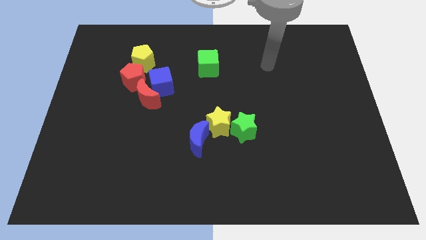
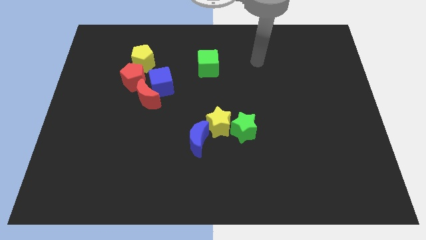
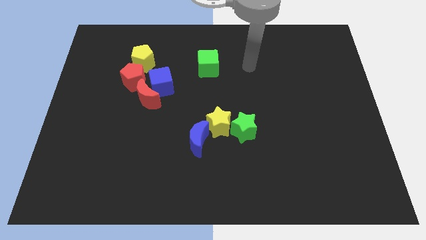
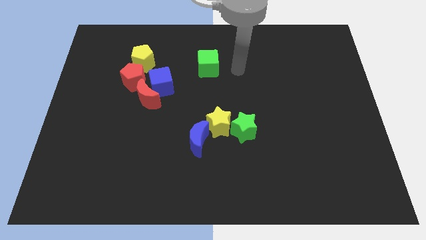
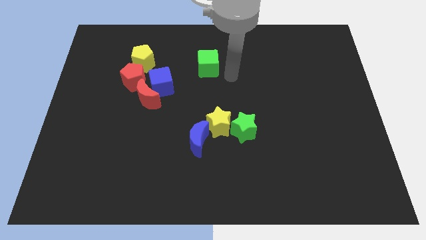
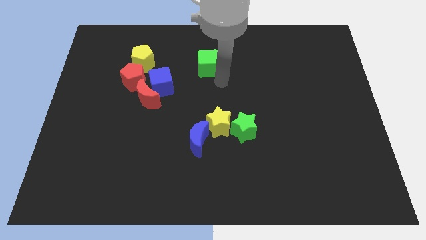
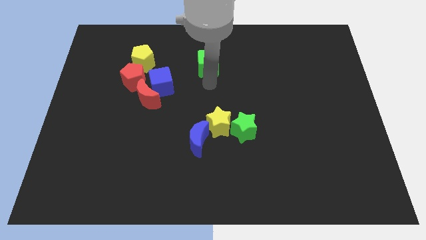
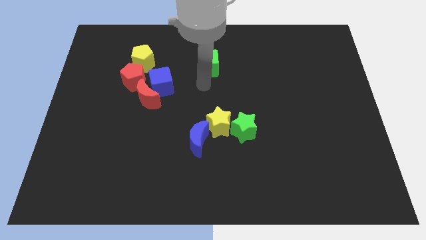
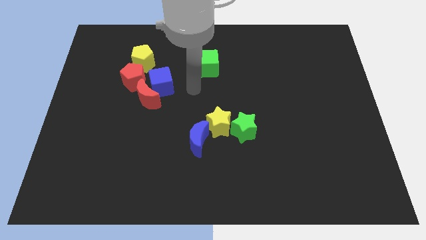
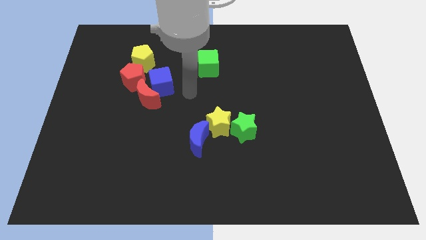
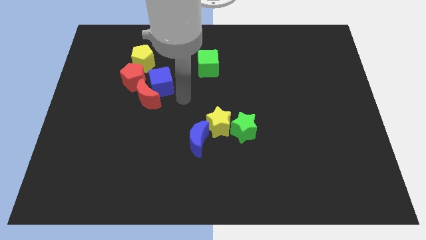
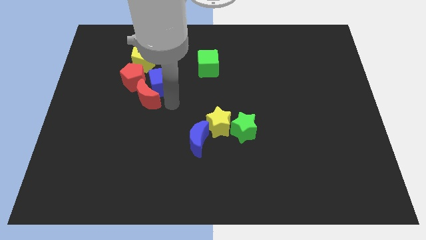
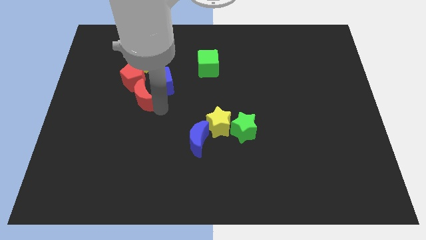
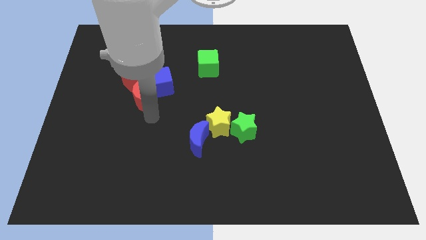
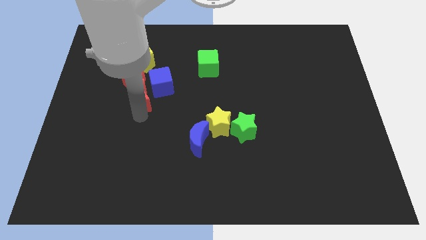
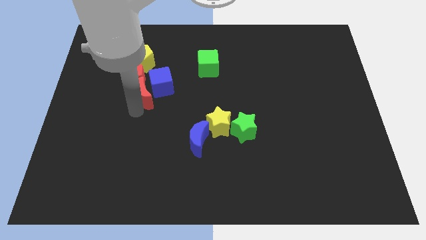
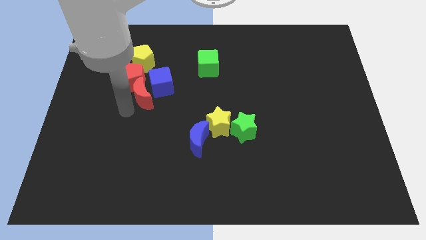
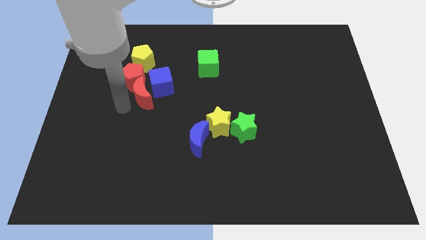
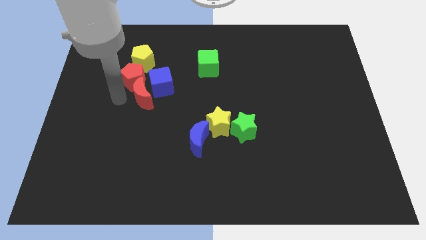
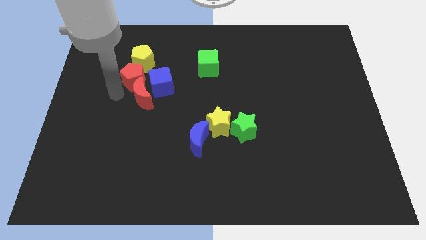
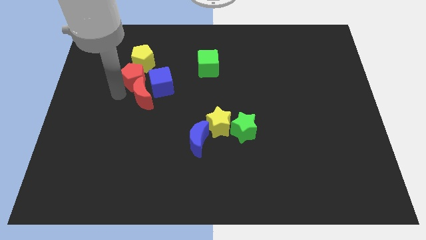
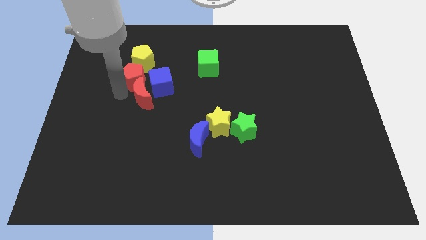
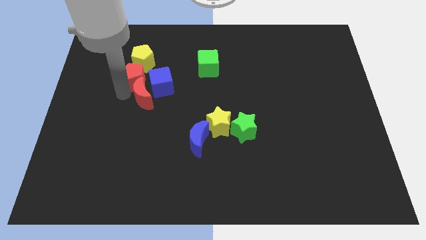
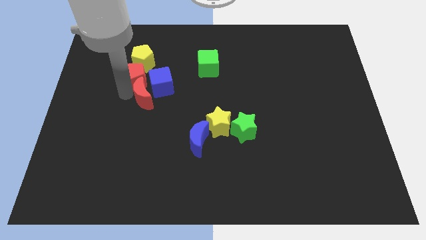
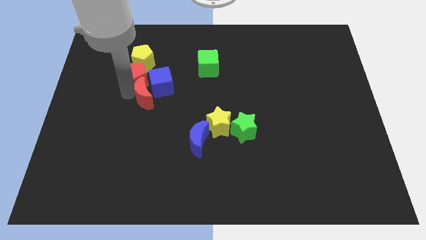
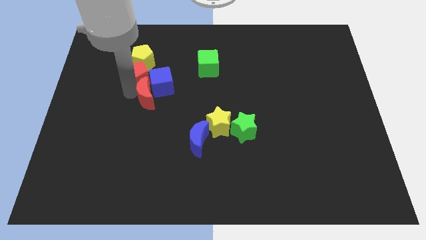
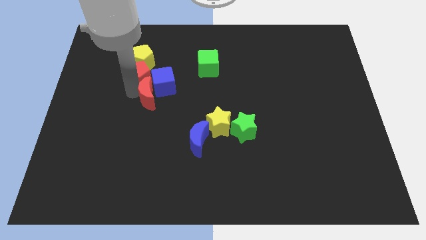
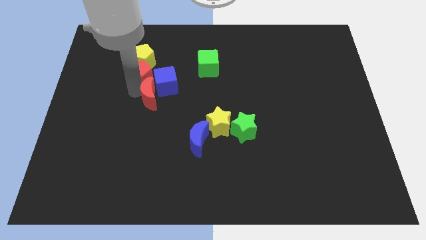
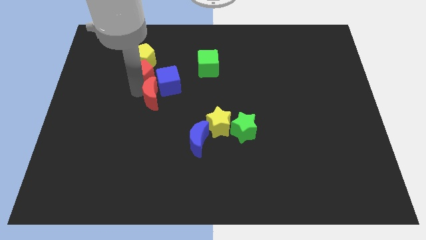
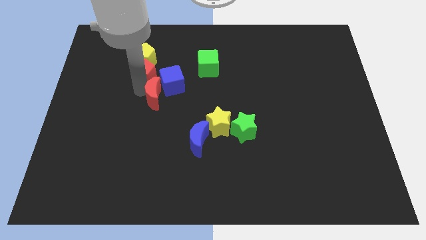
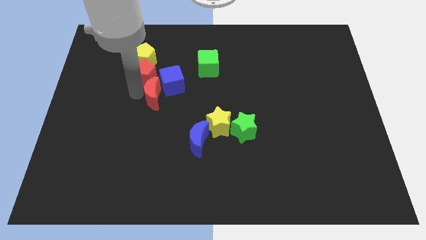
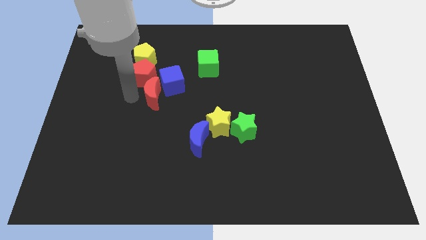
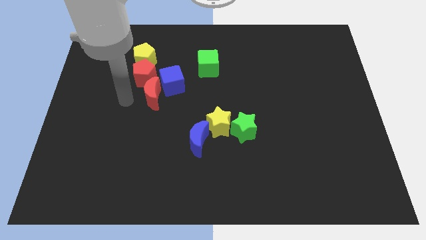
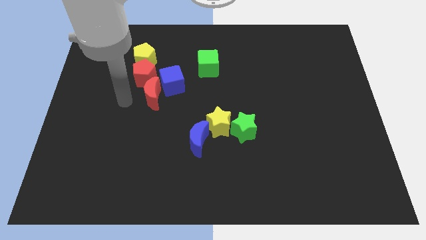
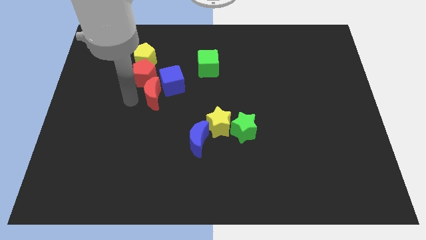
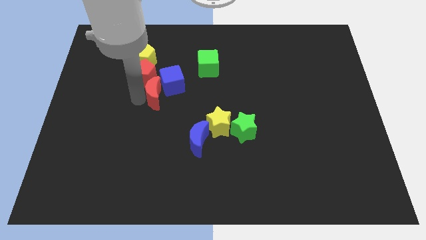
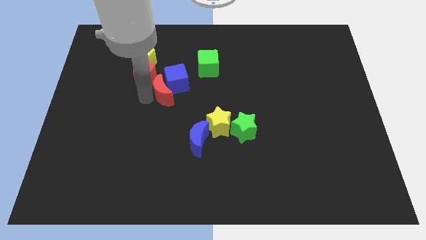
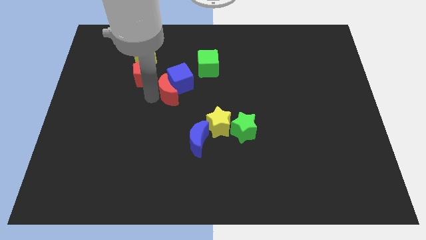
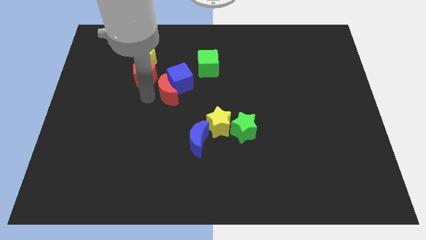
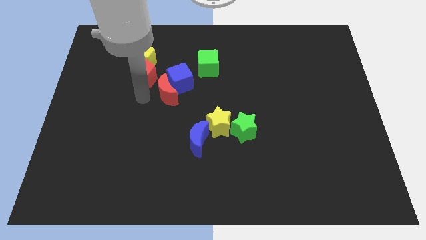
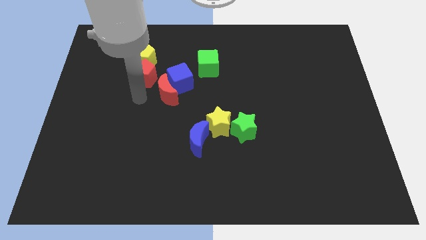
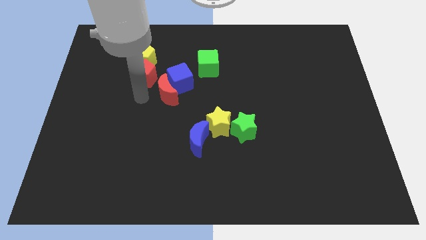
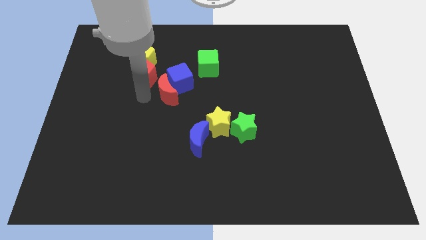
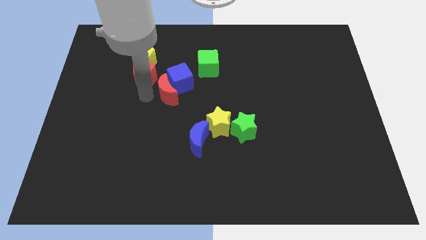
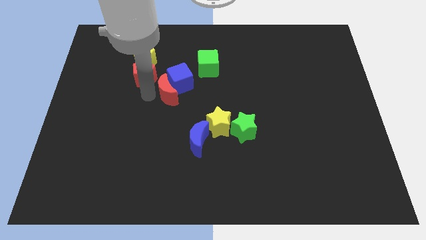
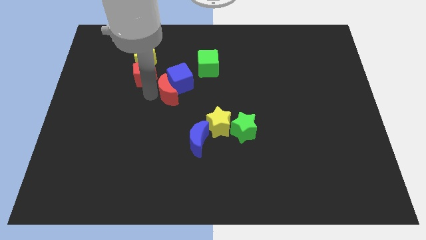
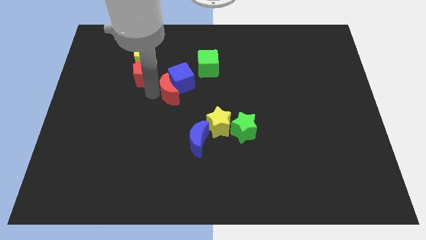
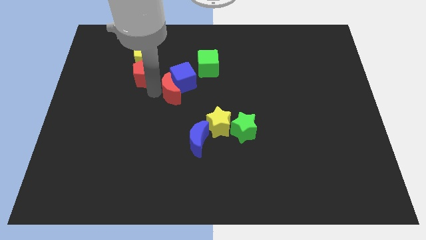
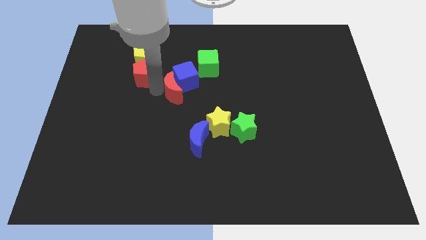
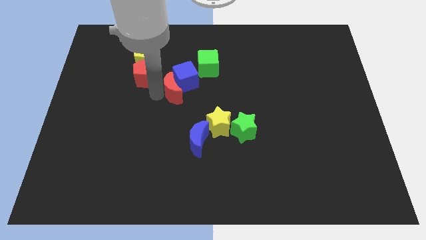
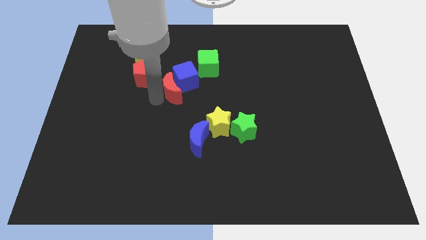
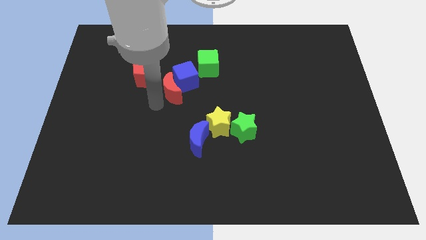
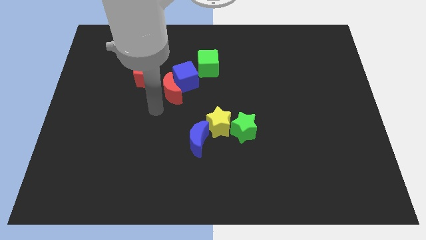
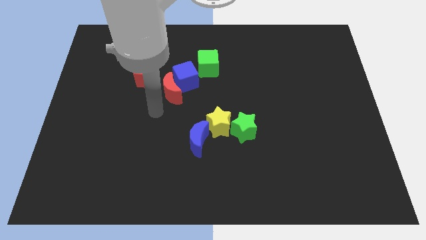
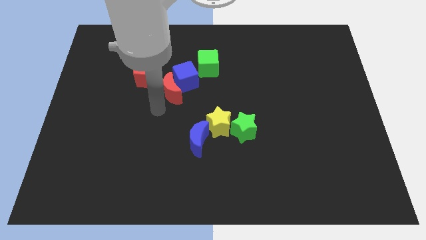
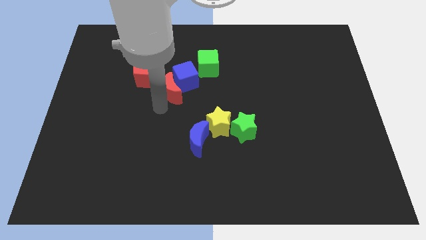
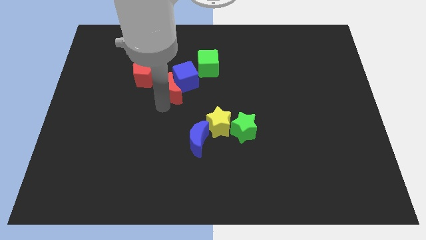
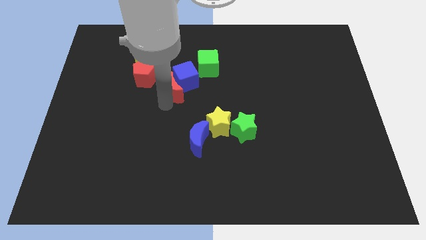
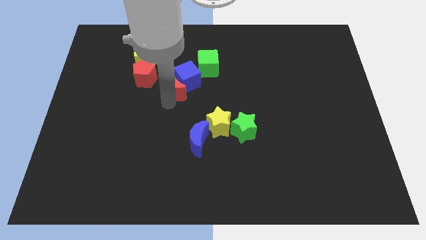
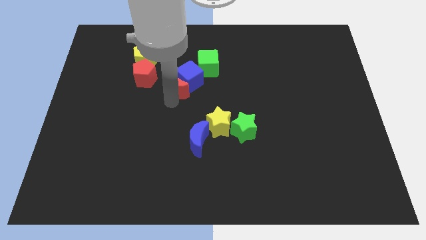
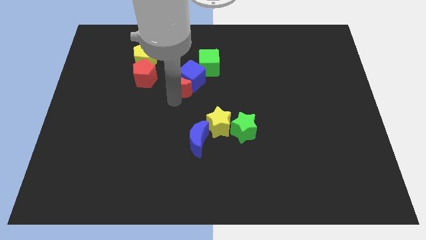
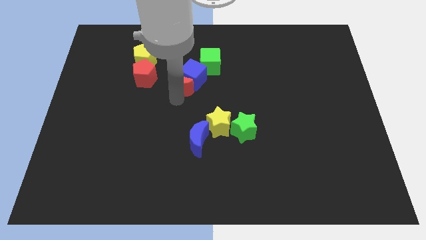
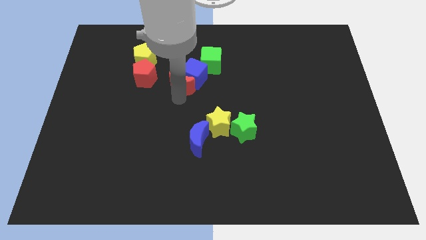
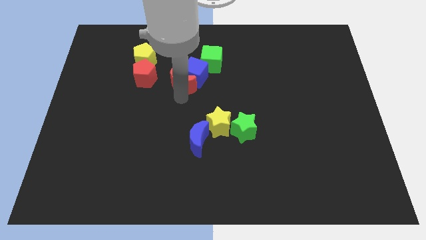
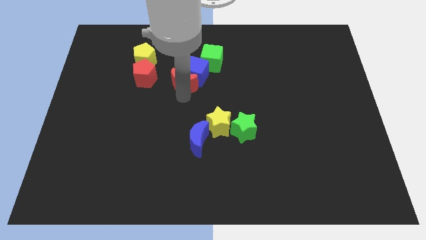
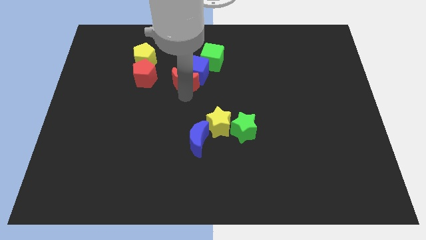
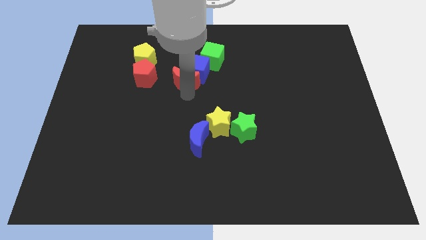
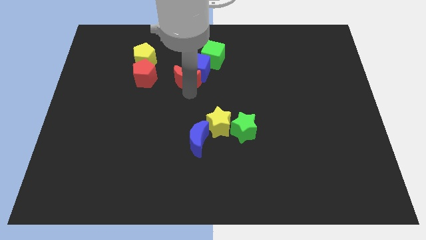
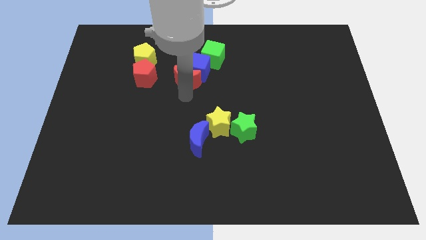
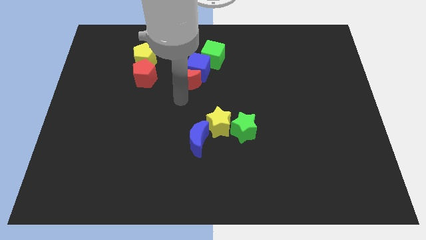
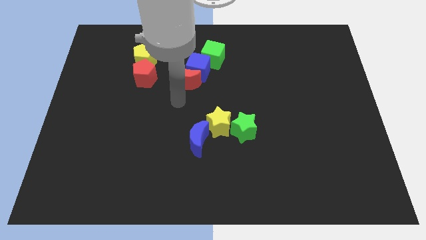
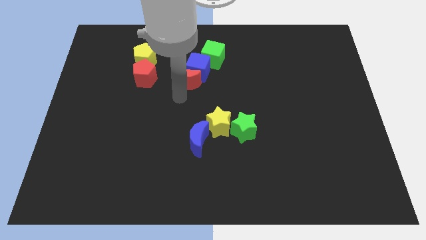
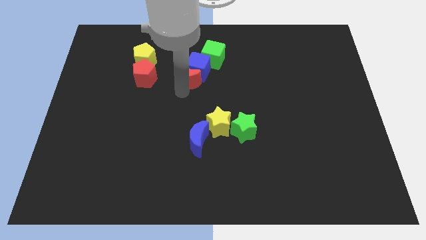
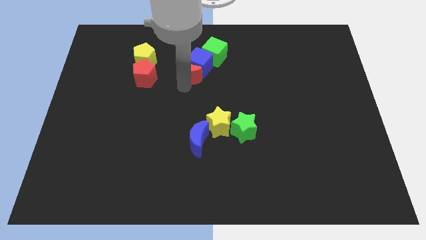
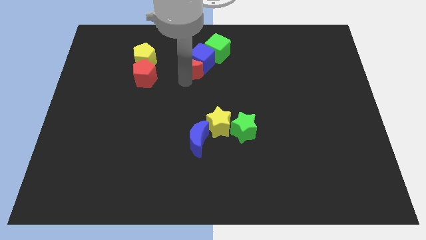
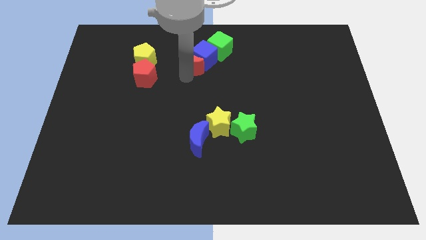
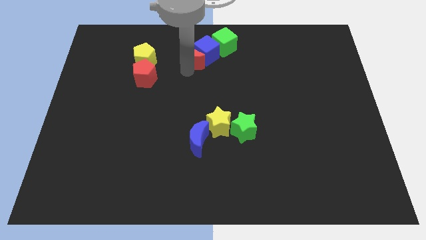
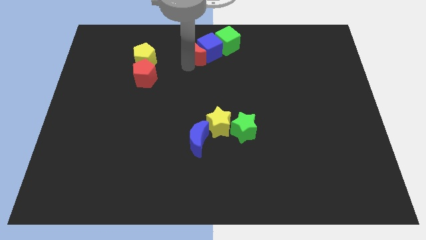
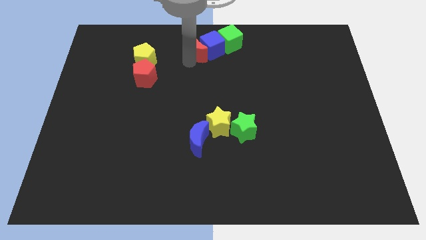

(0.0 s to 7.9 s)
push the red moon to the top
